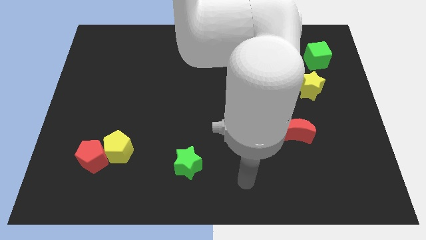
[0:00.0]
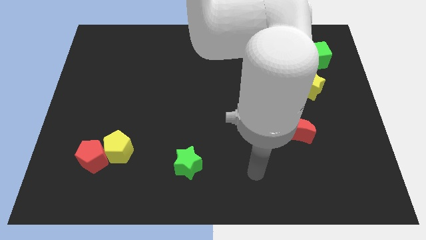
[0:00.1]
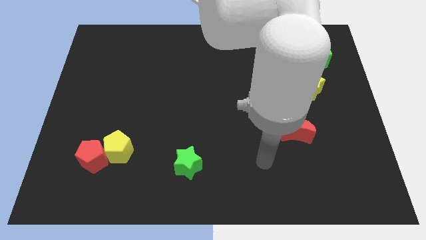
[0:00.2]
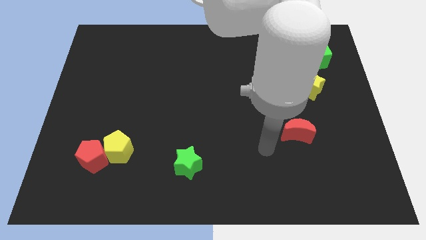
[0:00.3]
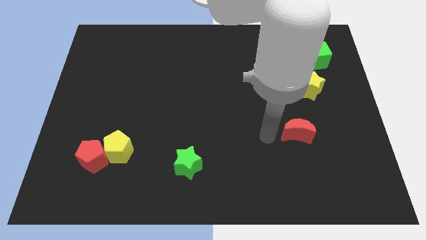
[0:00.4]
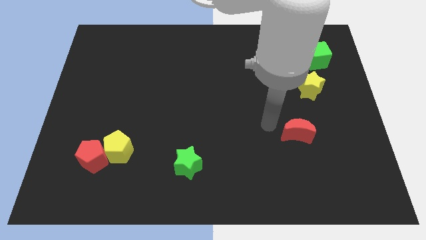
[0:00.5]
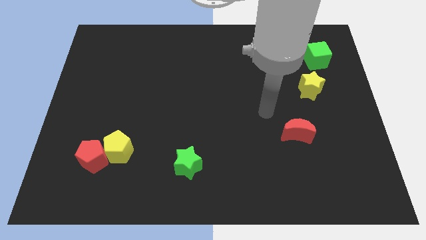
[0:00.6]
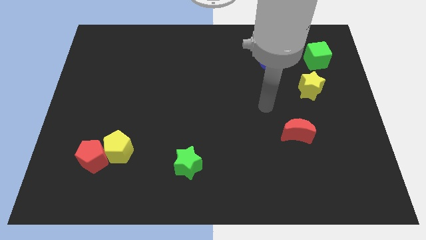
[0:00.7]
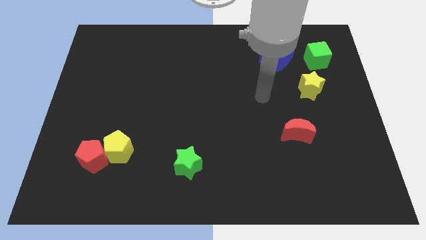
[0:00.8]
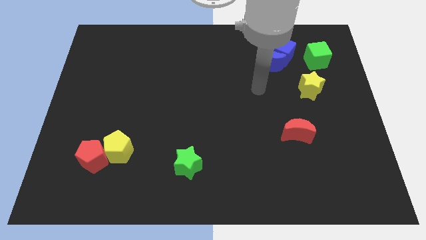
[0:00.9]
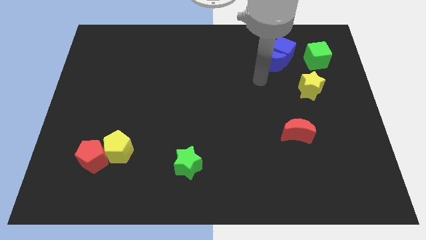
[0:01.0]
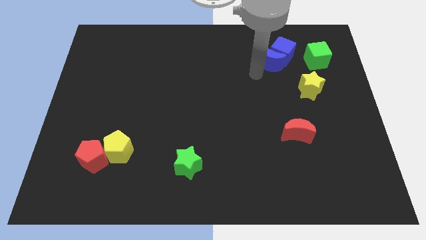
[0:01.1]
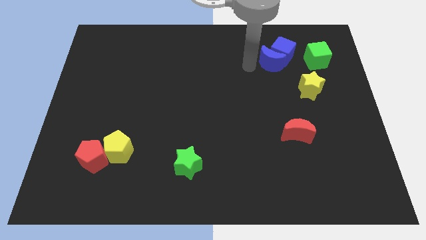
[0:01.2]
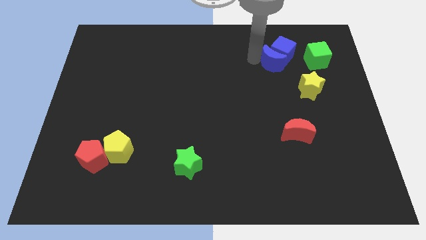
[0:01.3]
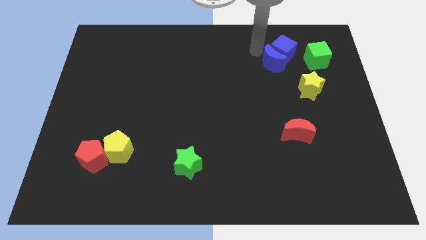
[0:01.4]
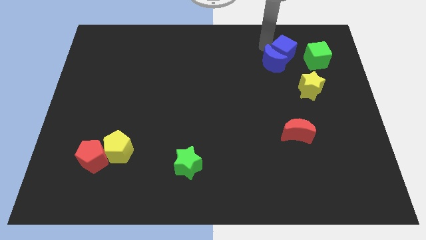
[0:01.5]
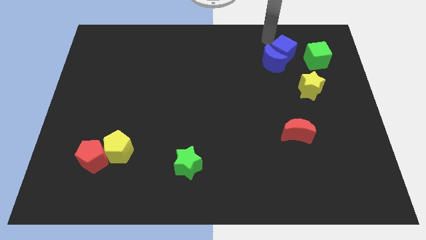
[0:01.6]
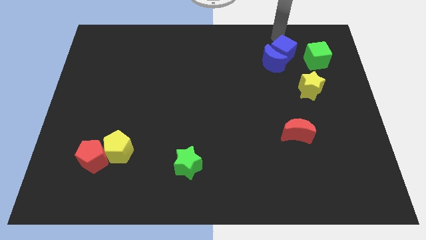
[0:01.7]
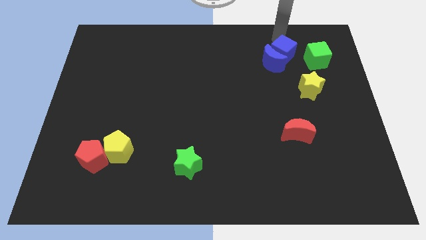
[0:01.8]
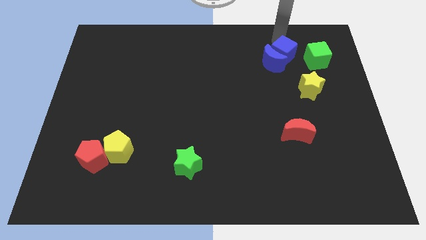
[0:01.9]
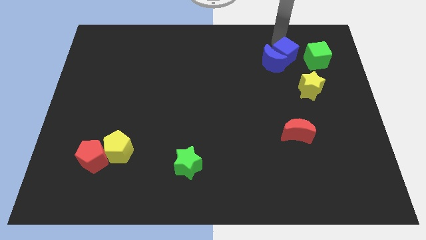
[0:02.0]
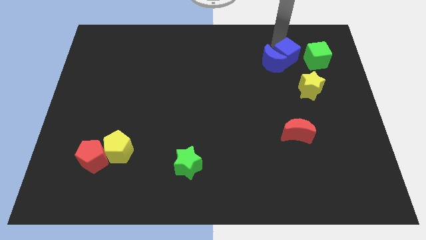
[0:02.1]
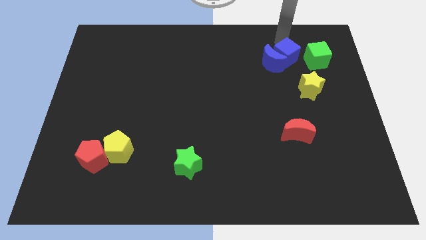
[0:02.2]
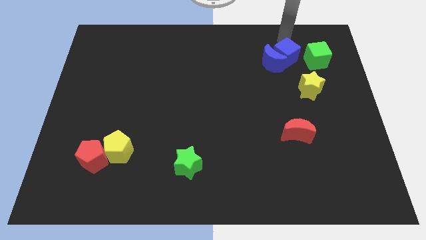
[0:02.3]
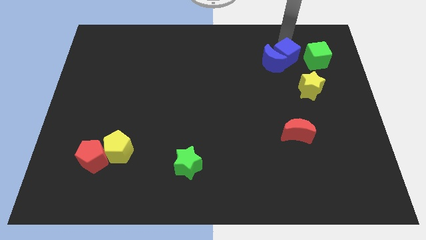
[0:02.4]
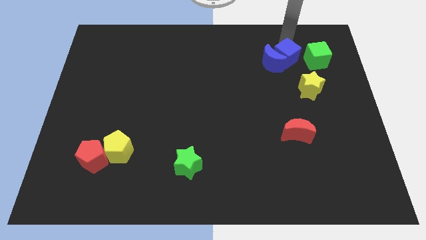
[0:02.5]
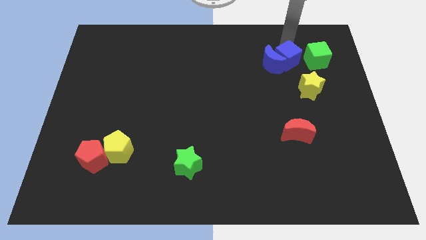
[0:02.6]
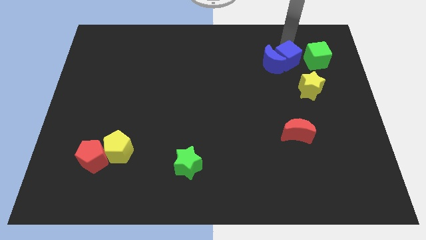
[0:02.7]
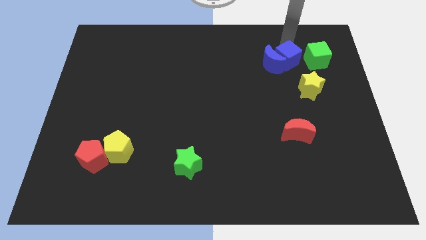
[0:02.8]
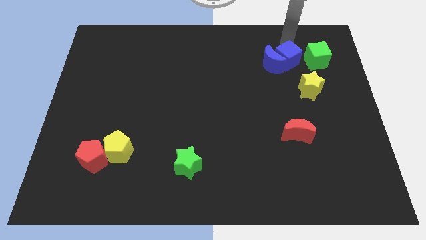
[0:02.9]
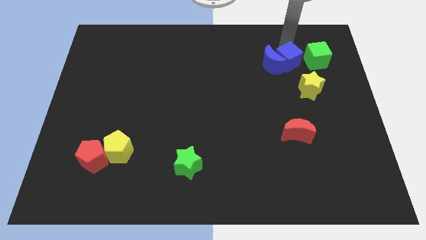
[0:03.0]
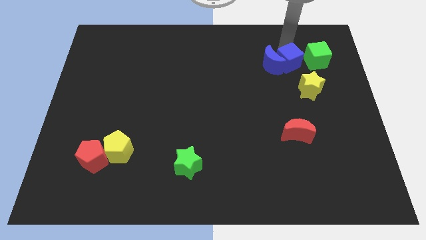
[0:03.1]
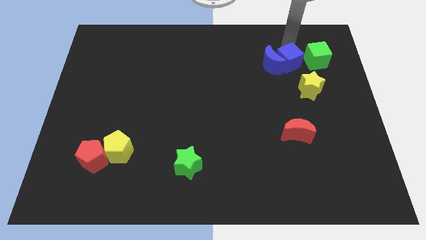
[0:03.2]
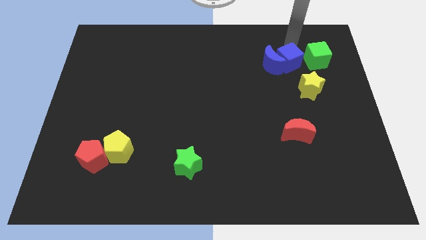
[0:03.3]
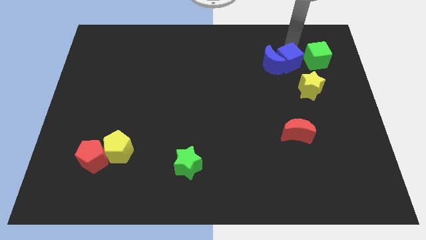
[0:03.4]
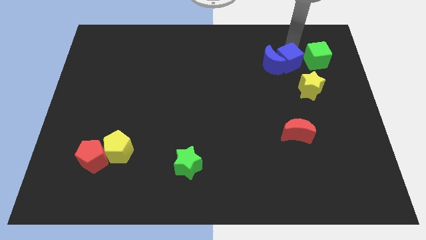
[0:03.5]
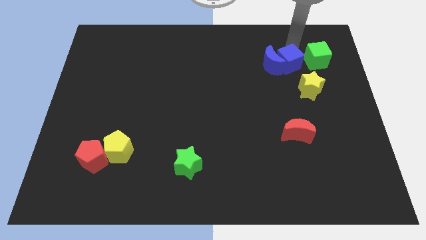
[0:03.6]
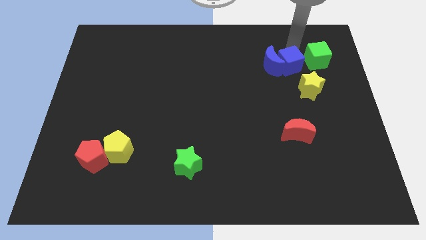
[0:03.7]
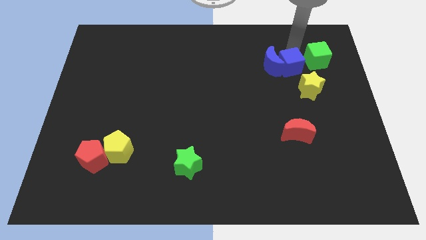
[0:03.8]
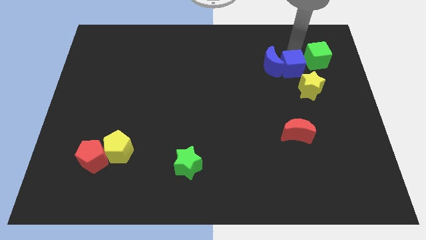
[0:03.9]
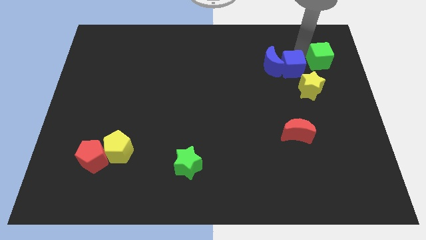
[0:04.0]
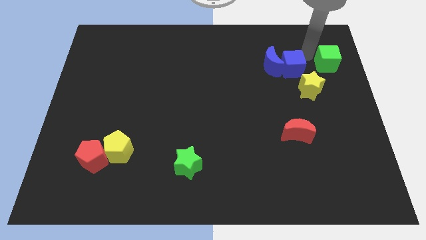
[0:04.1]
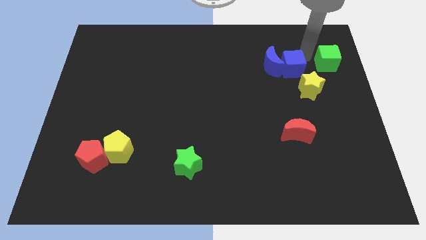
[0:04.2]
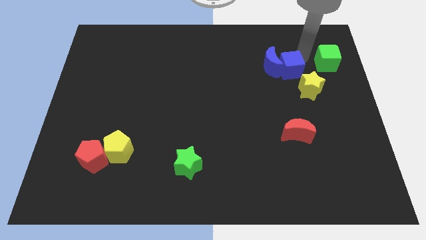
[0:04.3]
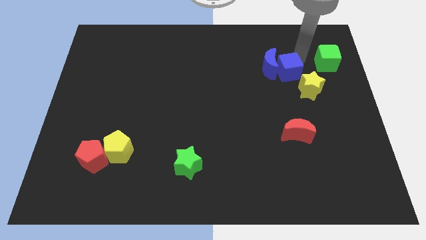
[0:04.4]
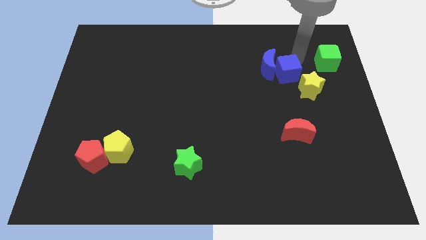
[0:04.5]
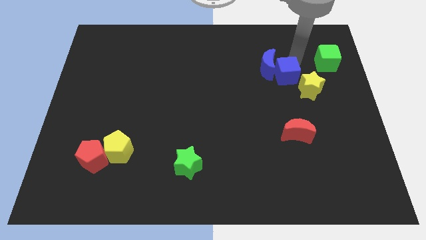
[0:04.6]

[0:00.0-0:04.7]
move the blue cube downwards slightly

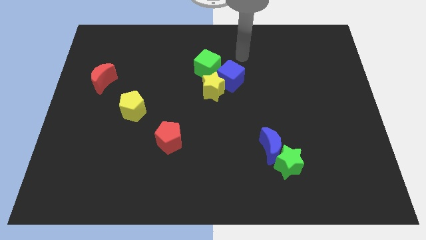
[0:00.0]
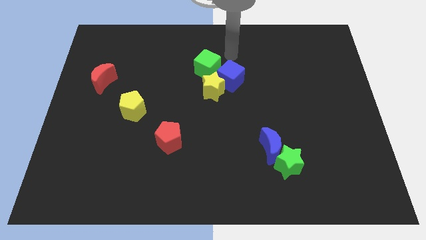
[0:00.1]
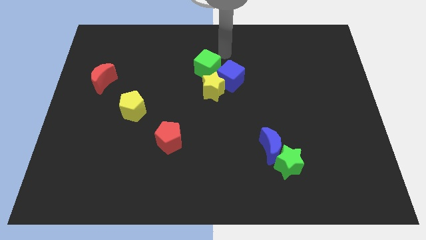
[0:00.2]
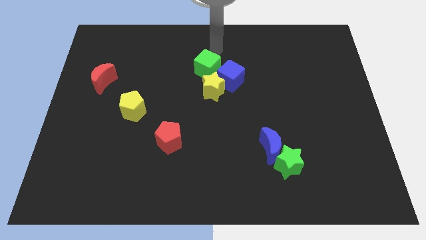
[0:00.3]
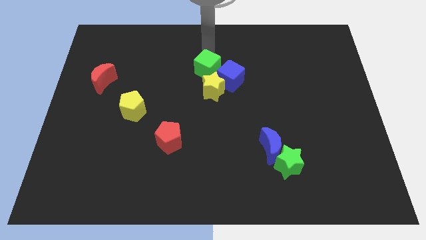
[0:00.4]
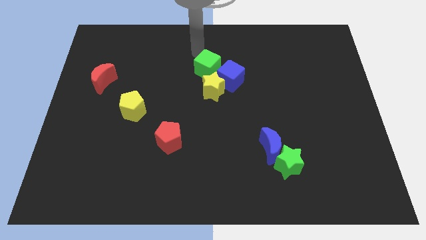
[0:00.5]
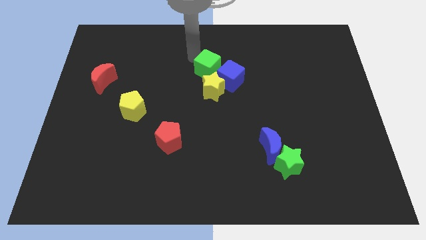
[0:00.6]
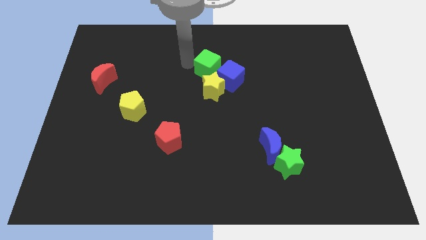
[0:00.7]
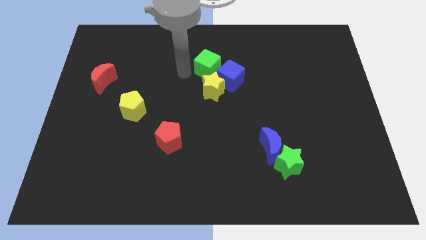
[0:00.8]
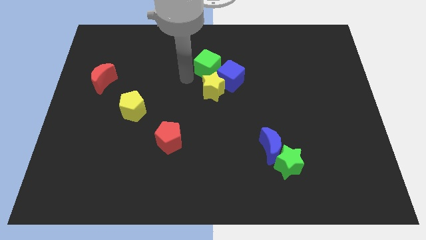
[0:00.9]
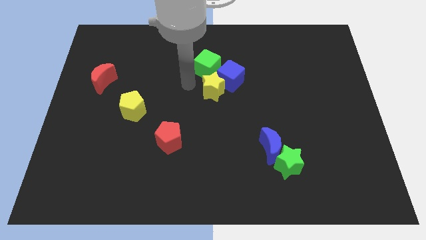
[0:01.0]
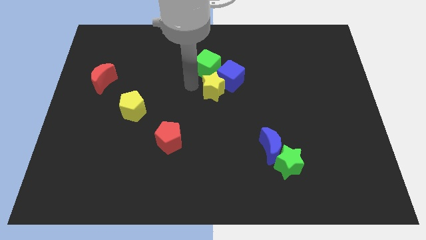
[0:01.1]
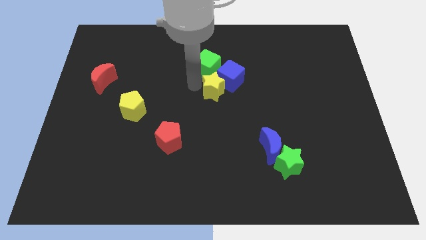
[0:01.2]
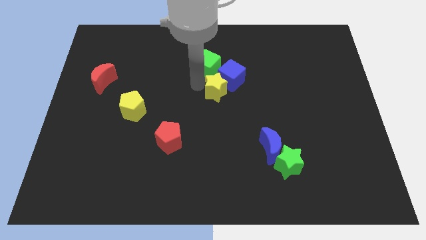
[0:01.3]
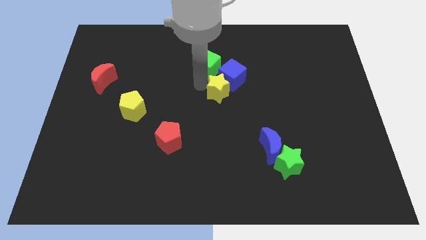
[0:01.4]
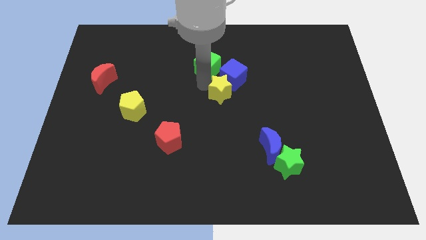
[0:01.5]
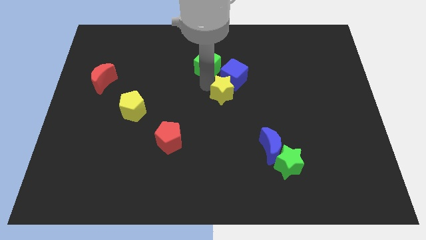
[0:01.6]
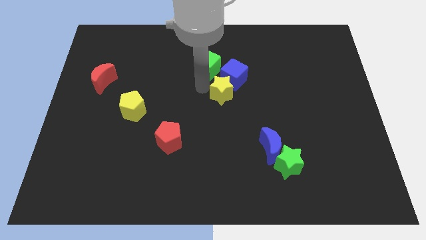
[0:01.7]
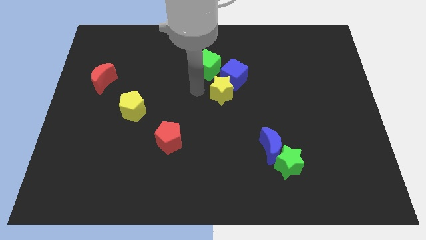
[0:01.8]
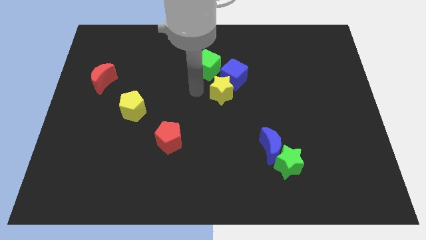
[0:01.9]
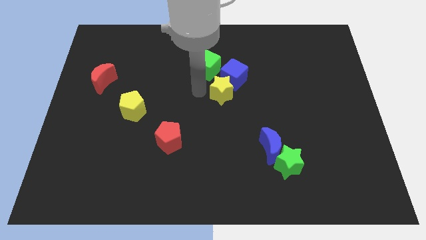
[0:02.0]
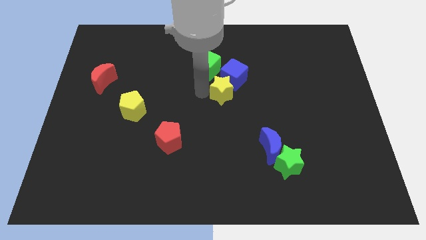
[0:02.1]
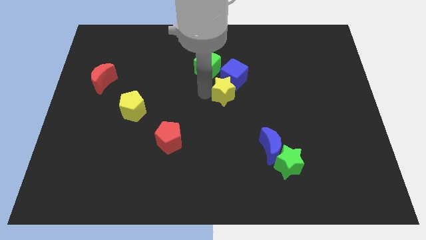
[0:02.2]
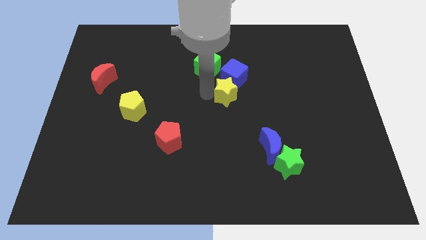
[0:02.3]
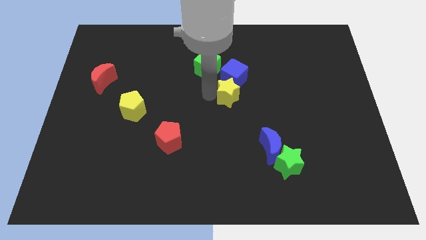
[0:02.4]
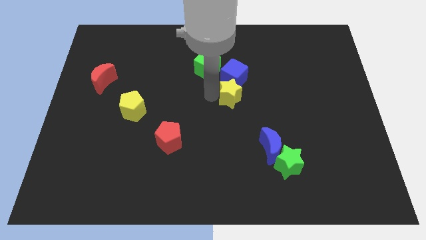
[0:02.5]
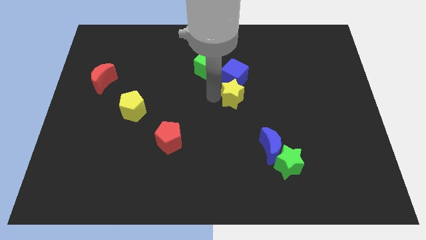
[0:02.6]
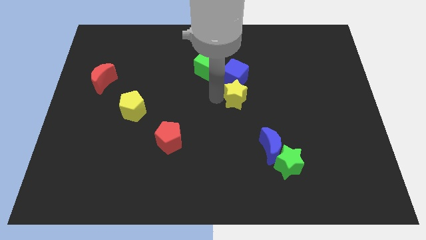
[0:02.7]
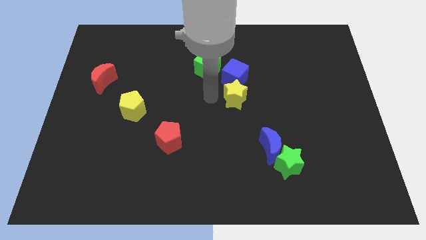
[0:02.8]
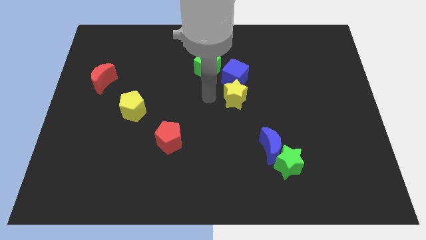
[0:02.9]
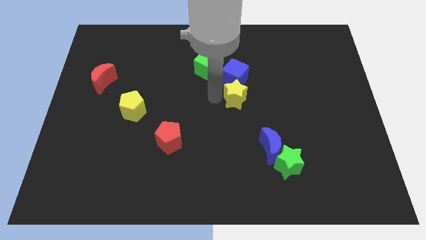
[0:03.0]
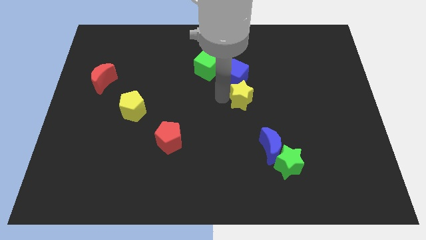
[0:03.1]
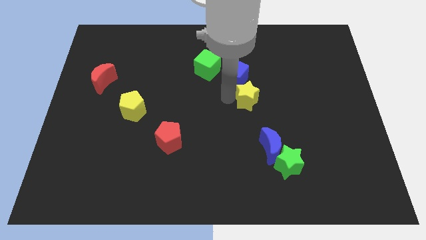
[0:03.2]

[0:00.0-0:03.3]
slightly slide the yellow star to the right
